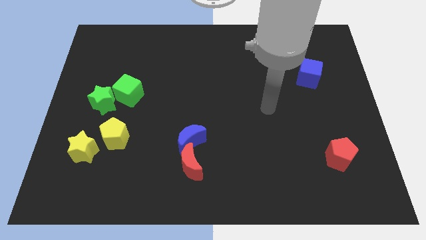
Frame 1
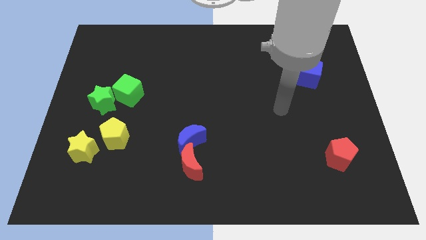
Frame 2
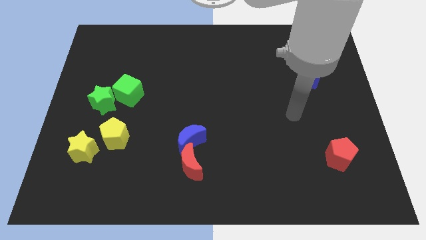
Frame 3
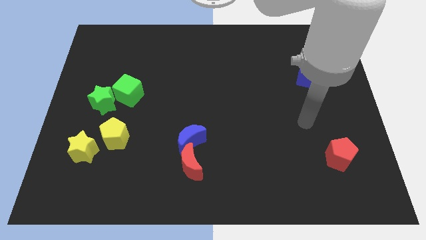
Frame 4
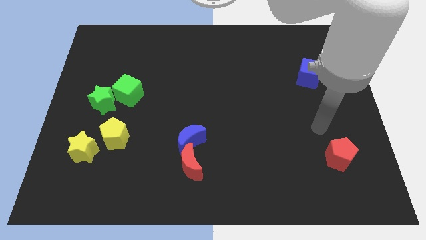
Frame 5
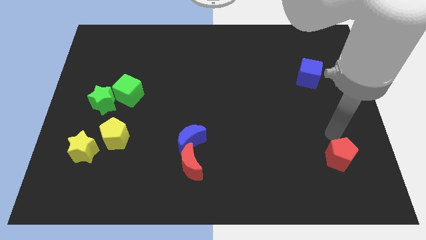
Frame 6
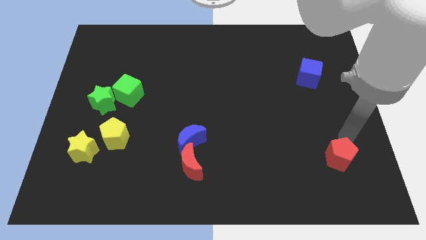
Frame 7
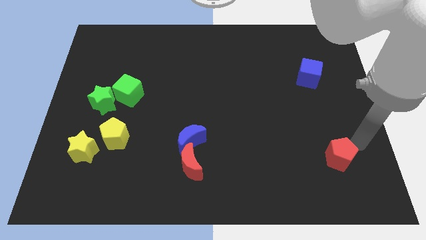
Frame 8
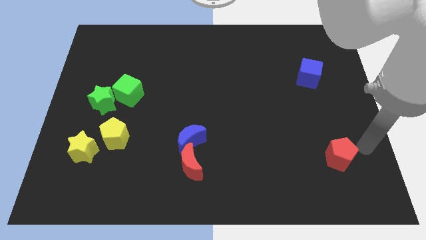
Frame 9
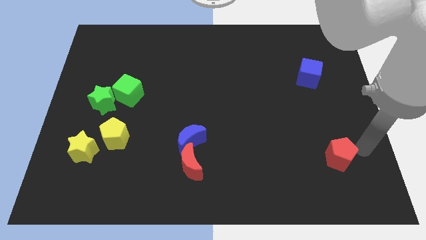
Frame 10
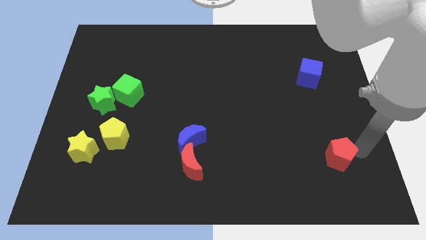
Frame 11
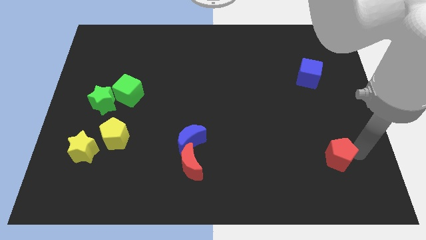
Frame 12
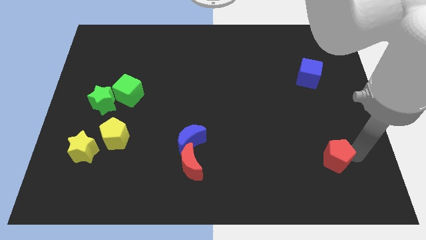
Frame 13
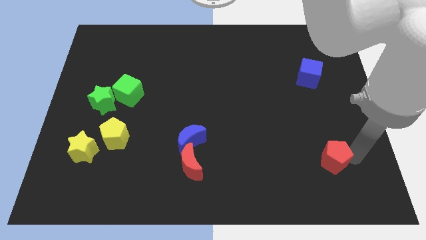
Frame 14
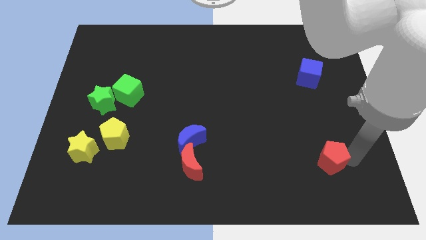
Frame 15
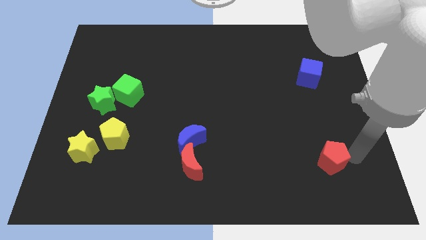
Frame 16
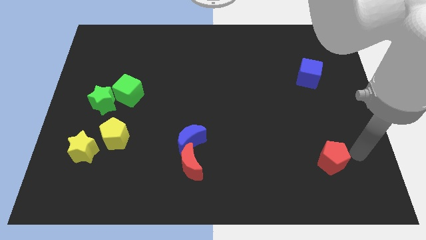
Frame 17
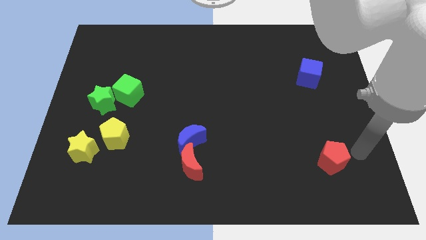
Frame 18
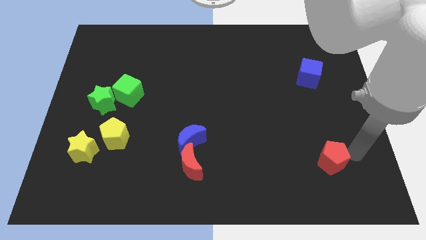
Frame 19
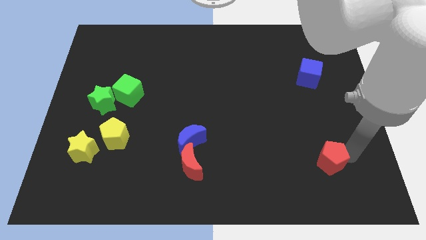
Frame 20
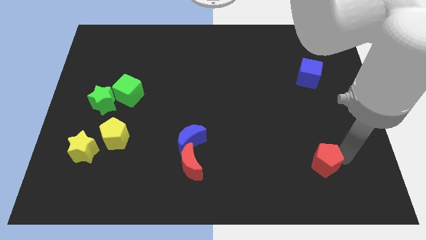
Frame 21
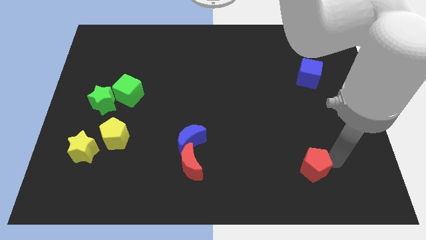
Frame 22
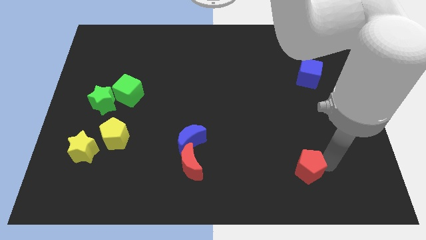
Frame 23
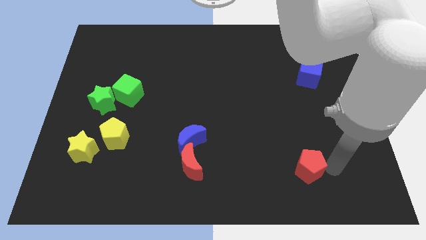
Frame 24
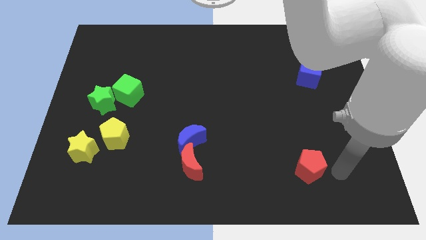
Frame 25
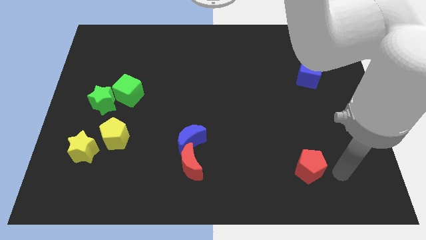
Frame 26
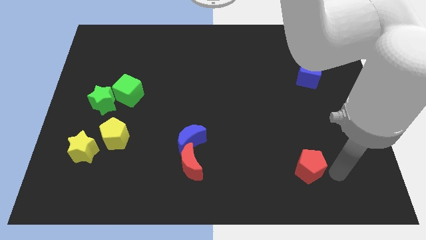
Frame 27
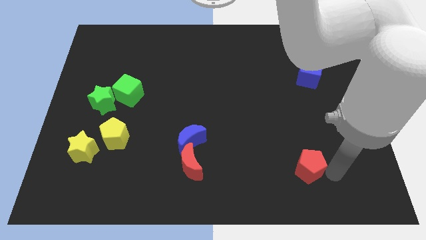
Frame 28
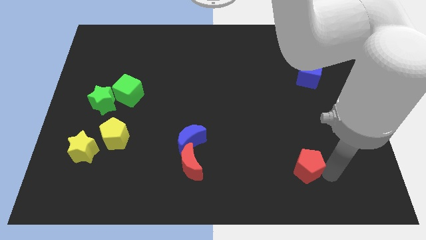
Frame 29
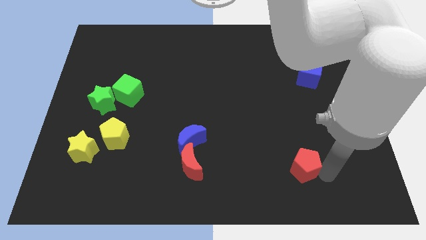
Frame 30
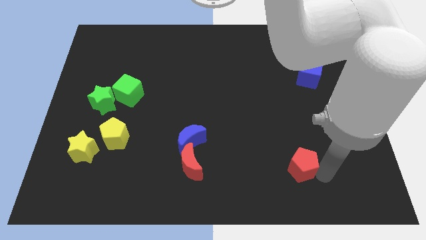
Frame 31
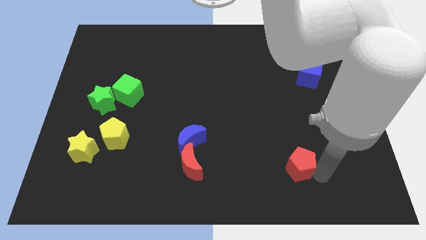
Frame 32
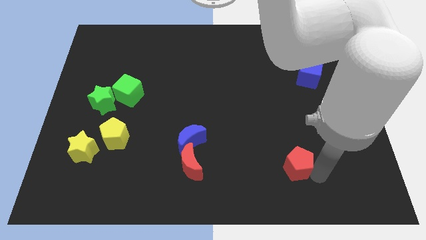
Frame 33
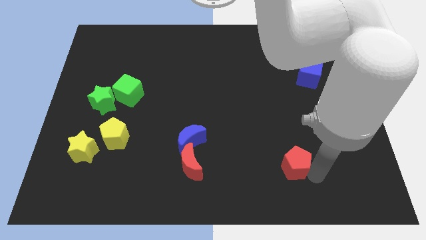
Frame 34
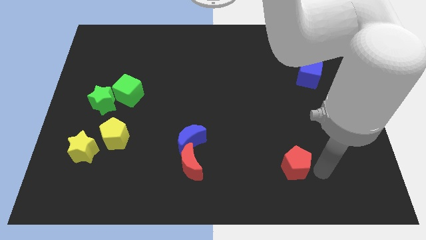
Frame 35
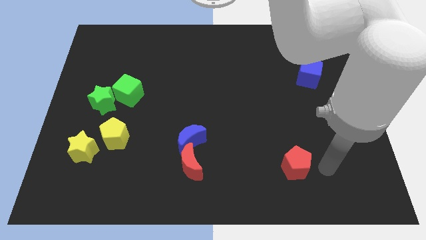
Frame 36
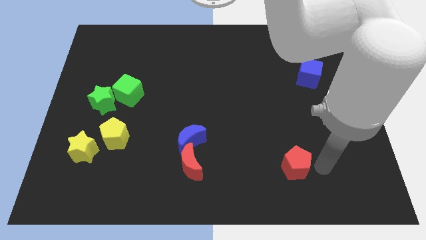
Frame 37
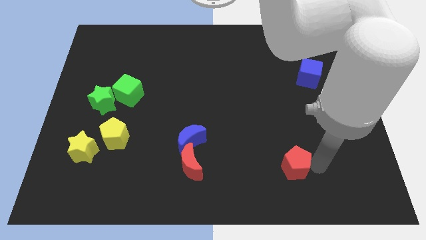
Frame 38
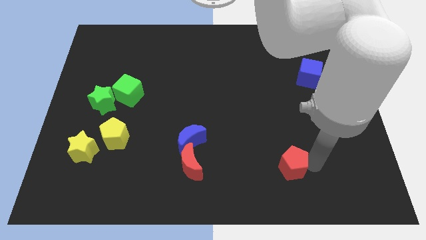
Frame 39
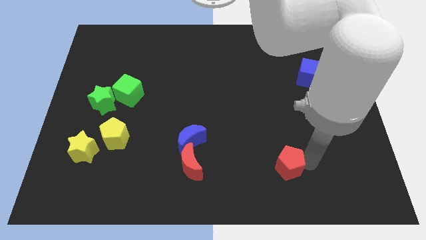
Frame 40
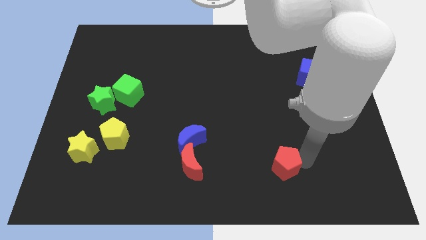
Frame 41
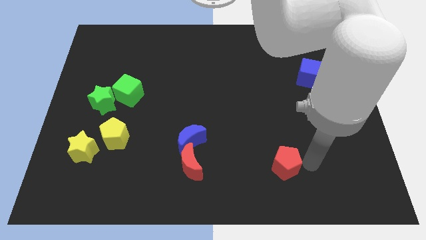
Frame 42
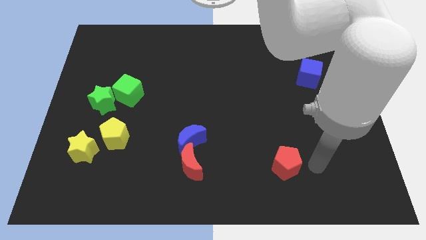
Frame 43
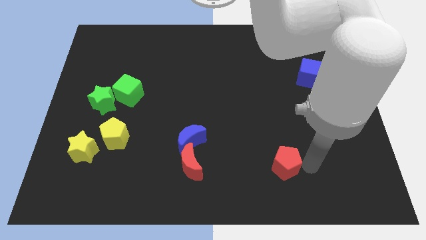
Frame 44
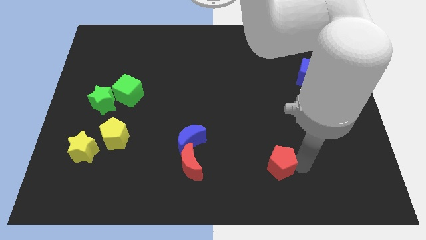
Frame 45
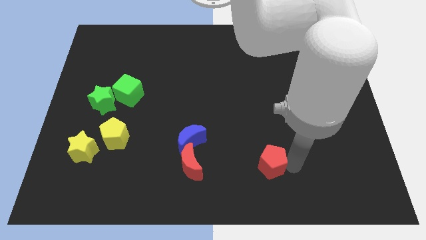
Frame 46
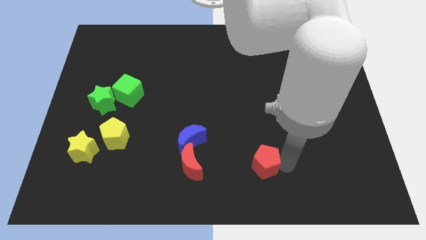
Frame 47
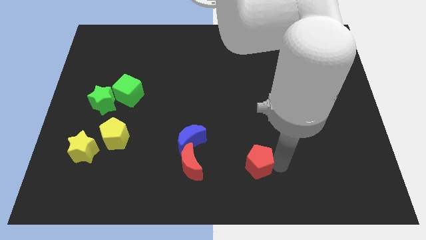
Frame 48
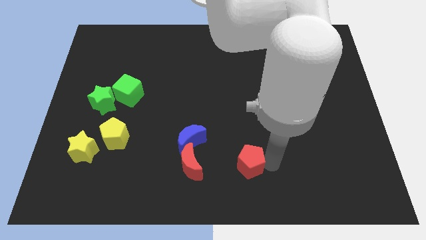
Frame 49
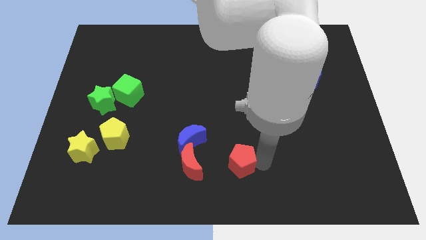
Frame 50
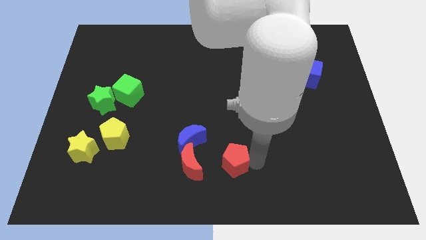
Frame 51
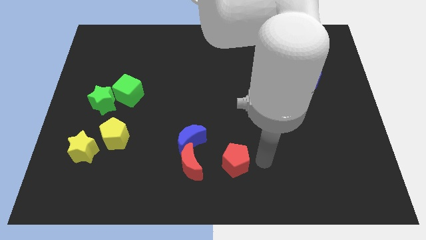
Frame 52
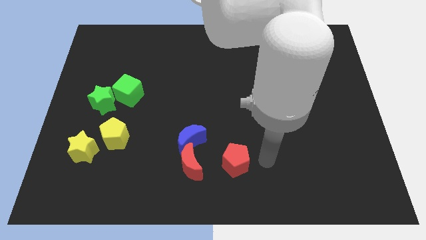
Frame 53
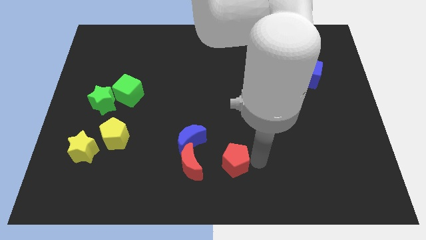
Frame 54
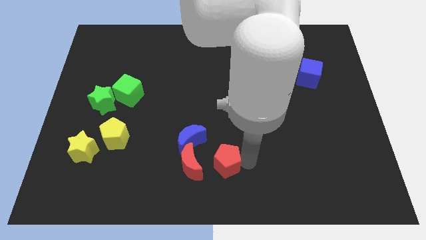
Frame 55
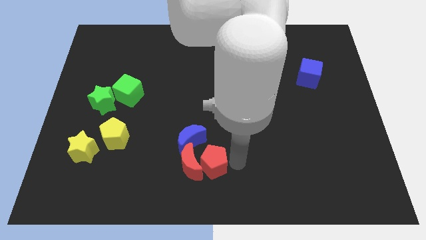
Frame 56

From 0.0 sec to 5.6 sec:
push the red pentagon towards the red moon

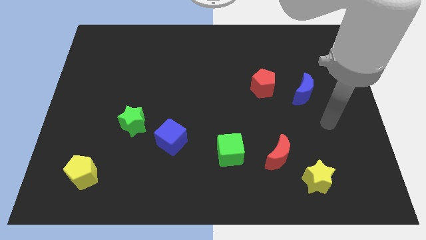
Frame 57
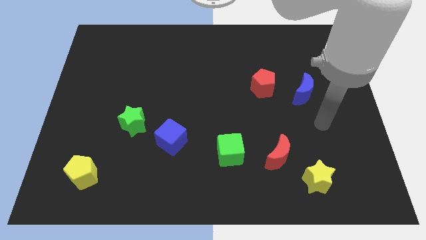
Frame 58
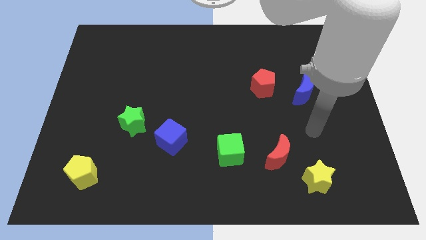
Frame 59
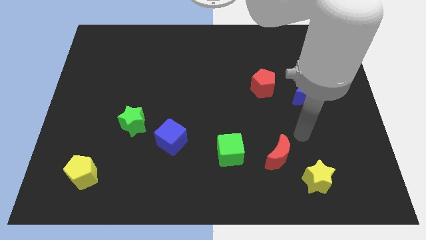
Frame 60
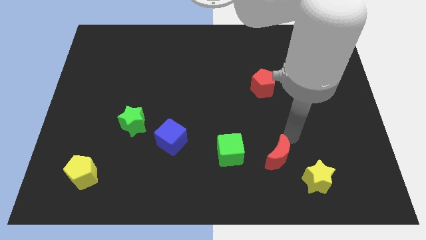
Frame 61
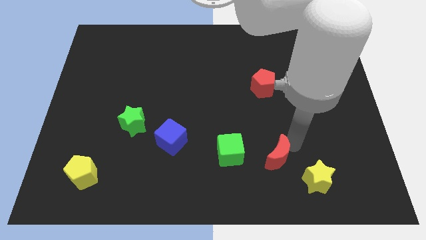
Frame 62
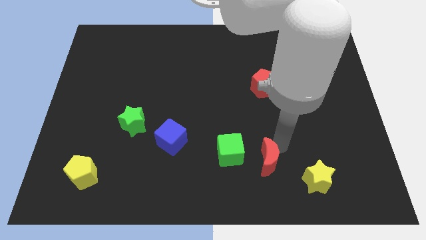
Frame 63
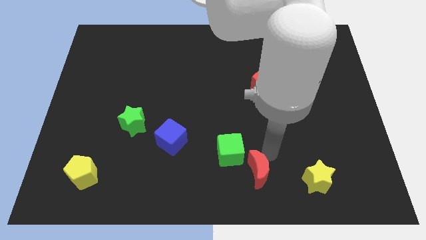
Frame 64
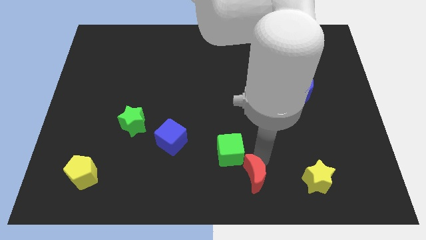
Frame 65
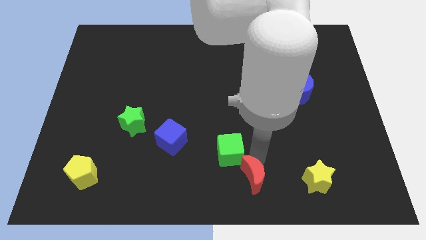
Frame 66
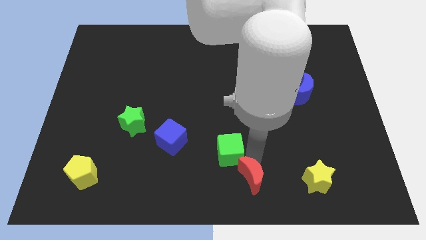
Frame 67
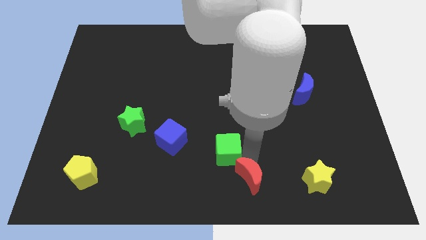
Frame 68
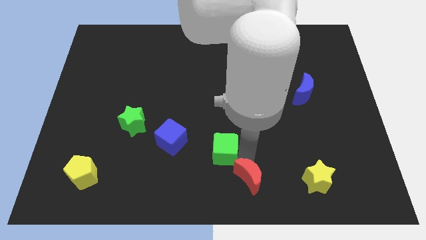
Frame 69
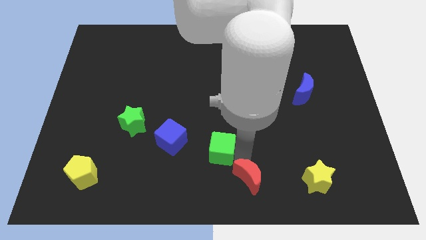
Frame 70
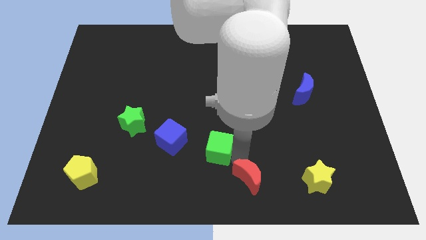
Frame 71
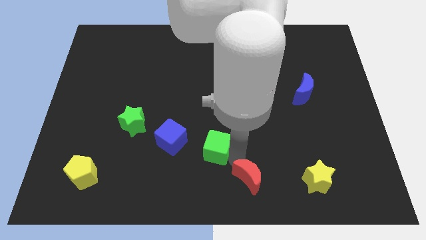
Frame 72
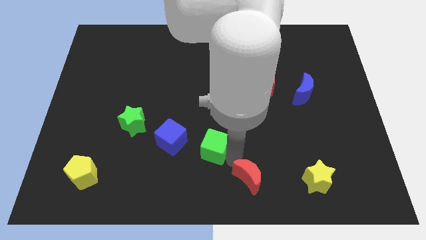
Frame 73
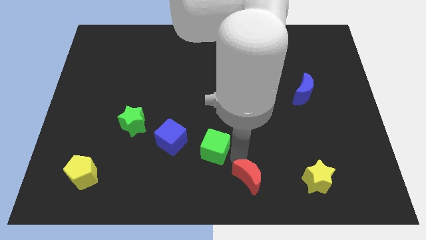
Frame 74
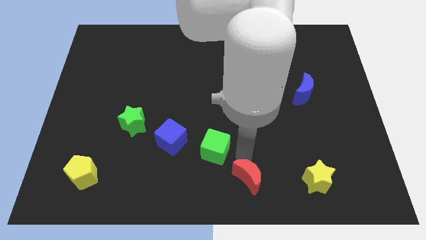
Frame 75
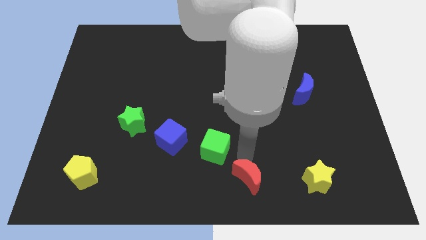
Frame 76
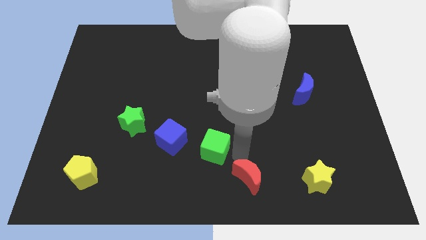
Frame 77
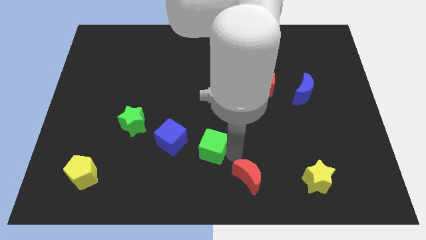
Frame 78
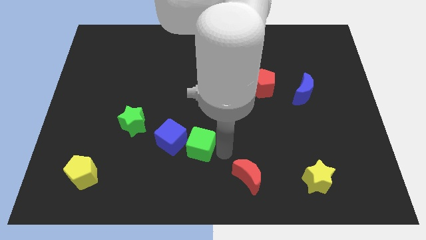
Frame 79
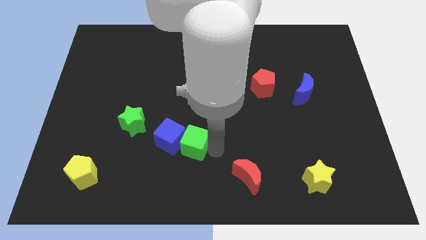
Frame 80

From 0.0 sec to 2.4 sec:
put the green cube close to the blue cube
